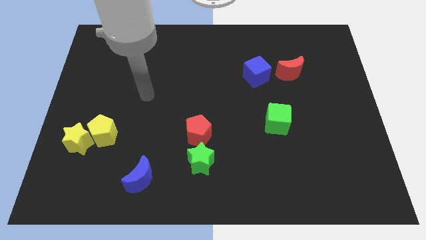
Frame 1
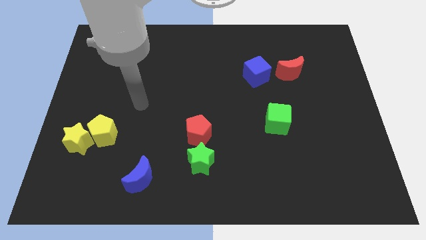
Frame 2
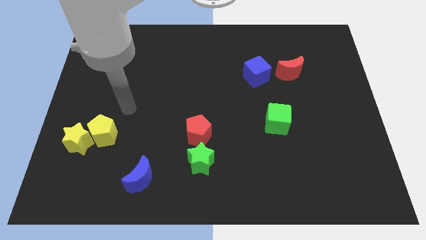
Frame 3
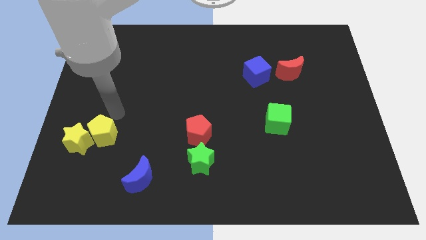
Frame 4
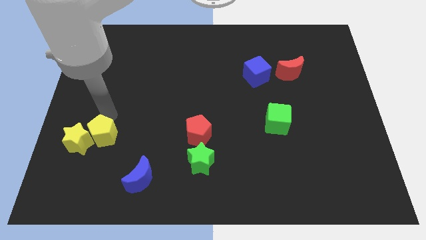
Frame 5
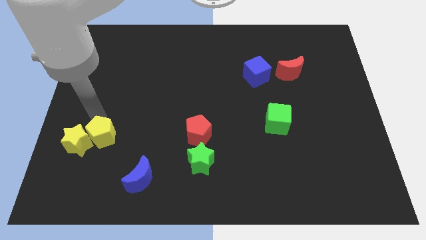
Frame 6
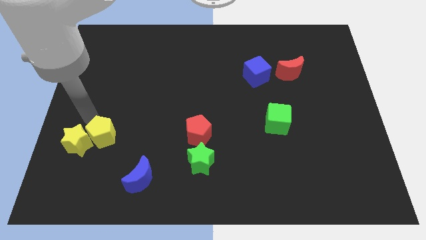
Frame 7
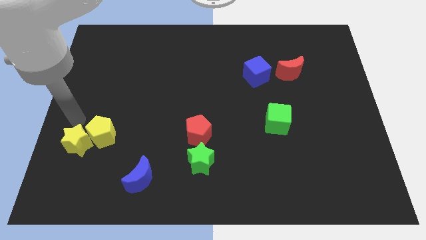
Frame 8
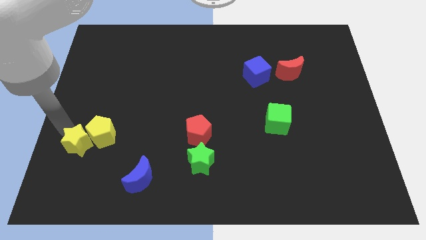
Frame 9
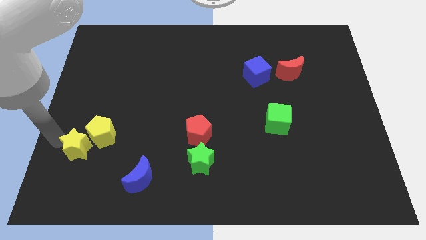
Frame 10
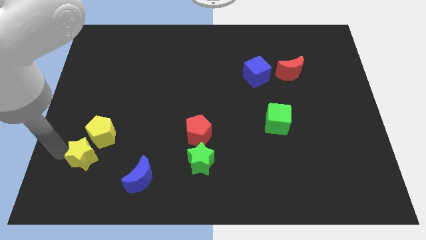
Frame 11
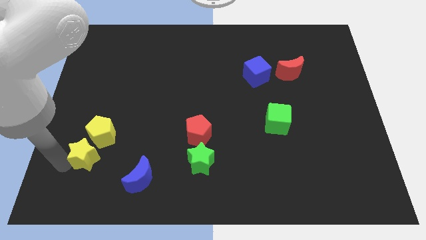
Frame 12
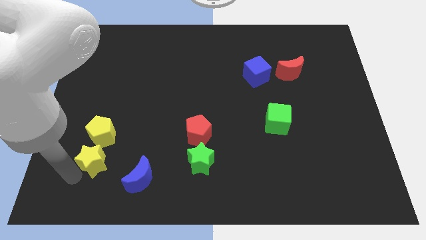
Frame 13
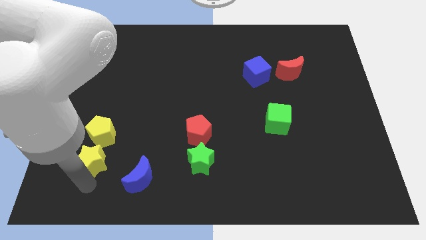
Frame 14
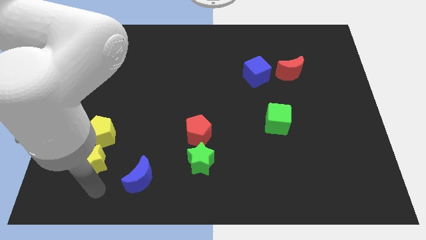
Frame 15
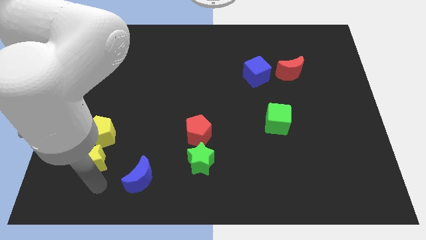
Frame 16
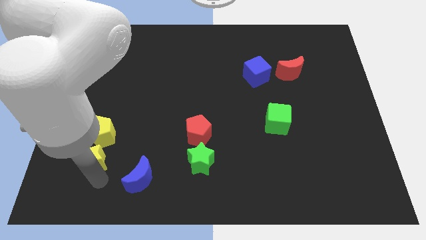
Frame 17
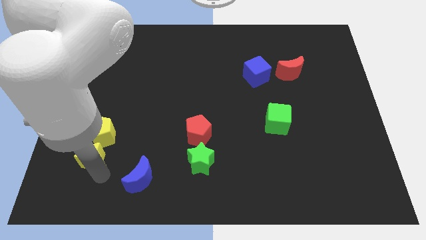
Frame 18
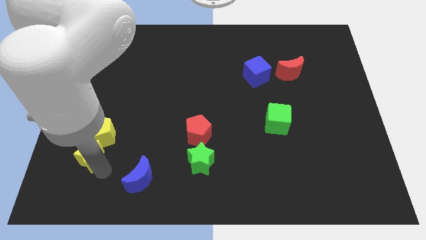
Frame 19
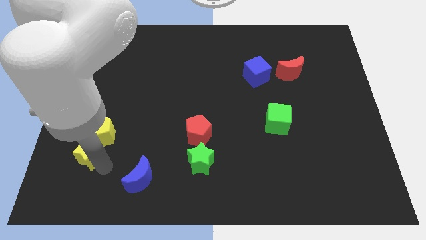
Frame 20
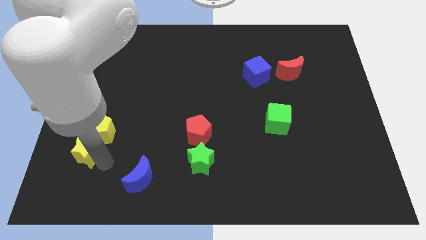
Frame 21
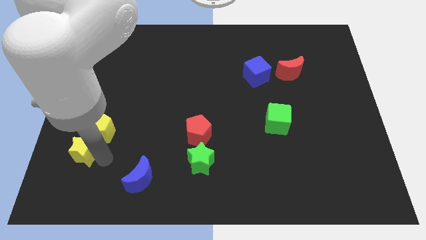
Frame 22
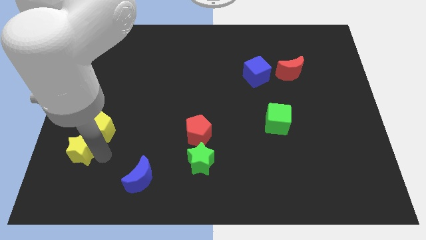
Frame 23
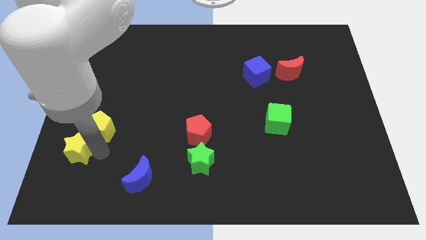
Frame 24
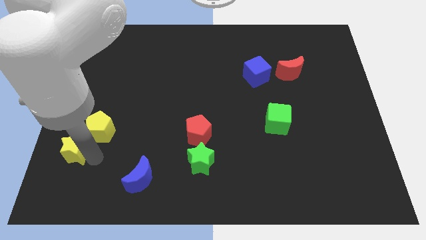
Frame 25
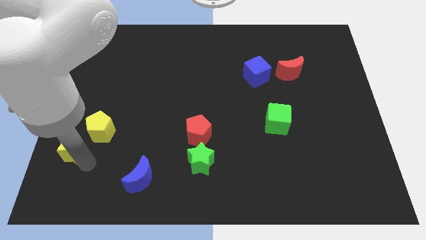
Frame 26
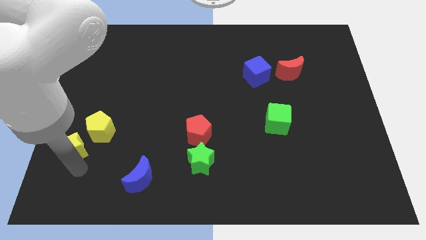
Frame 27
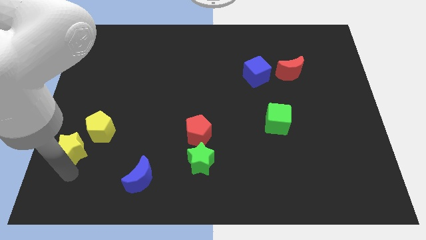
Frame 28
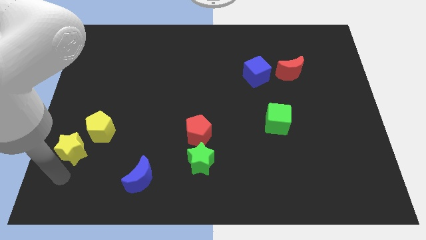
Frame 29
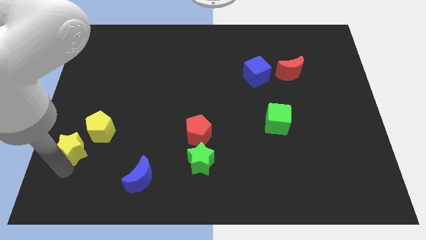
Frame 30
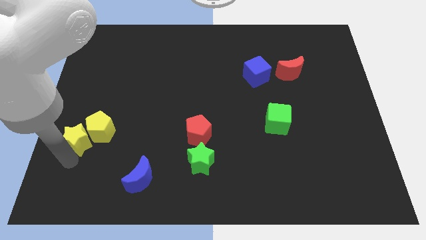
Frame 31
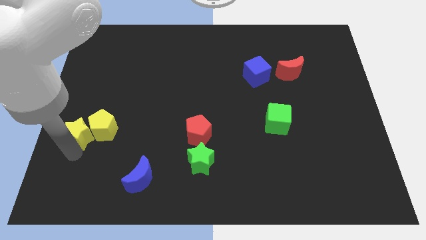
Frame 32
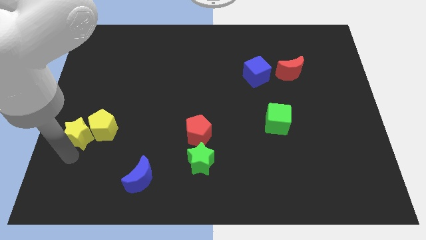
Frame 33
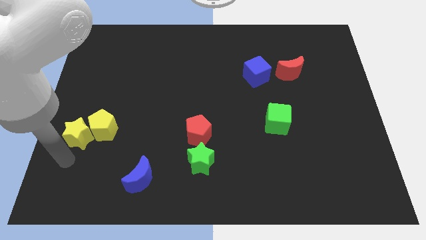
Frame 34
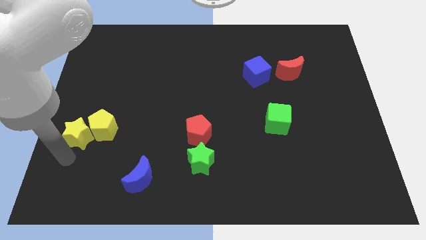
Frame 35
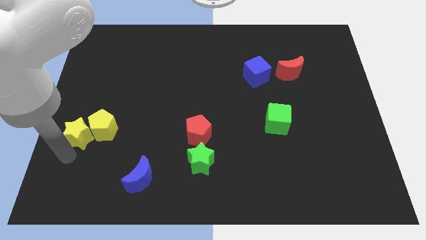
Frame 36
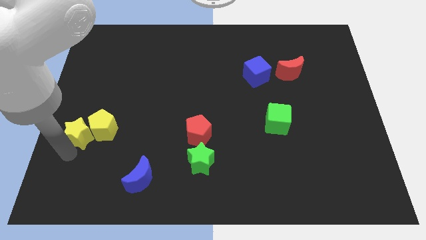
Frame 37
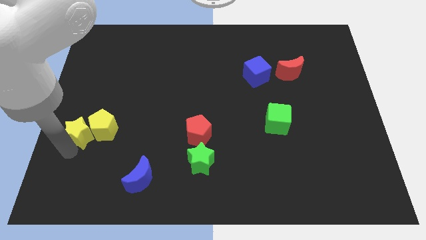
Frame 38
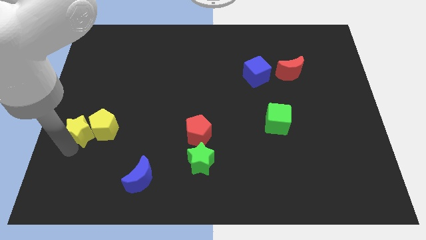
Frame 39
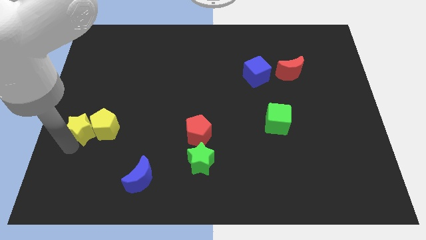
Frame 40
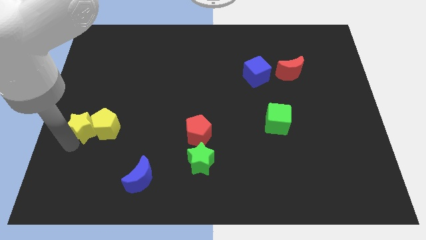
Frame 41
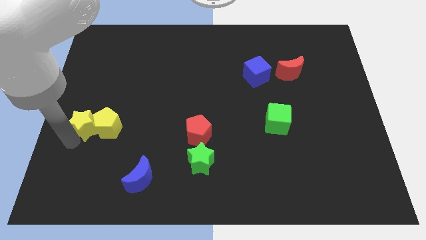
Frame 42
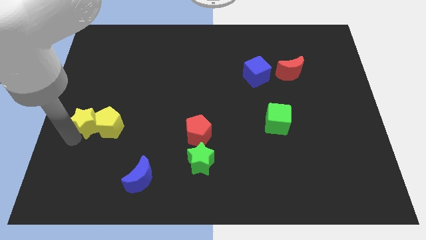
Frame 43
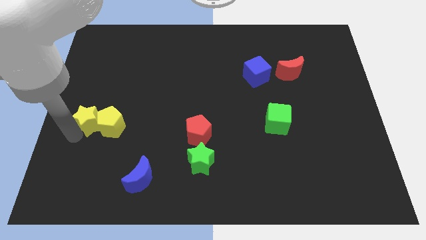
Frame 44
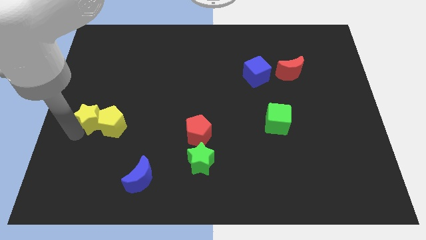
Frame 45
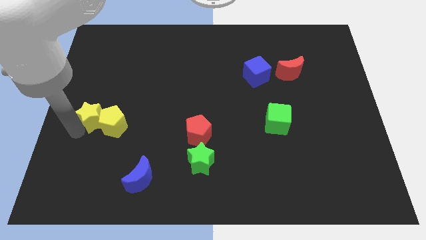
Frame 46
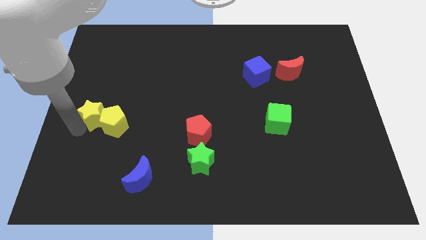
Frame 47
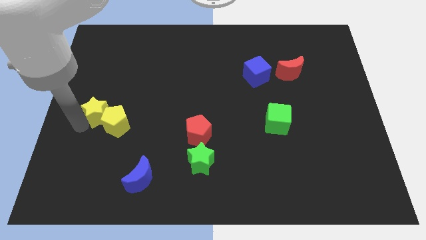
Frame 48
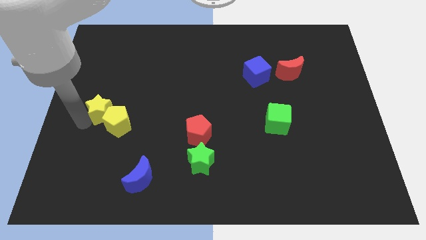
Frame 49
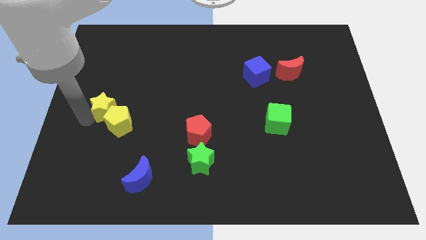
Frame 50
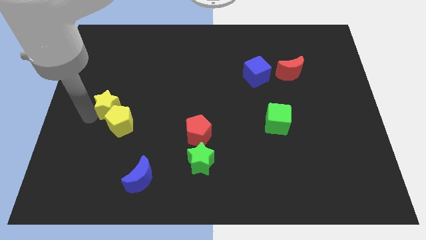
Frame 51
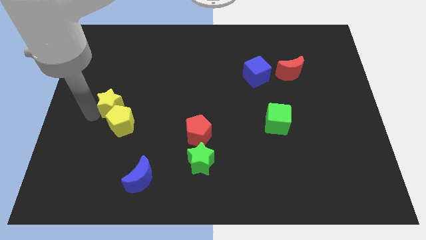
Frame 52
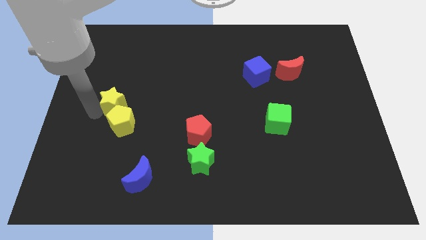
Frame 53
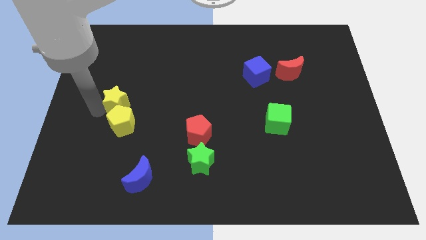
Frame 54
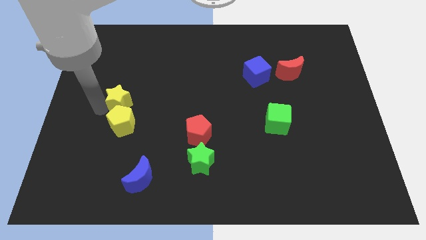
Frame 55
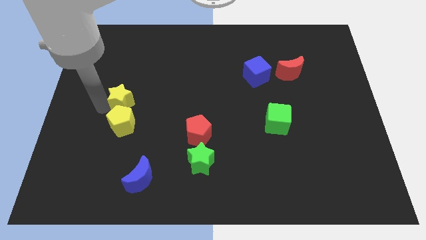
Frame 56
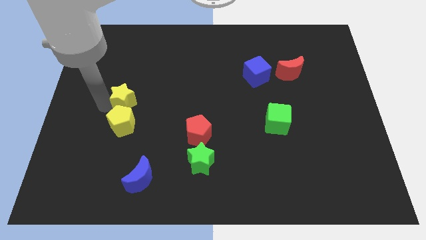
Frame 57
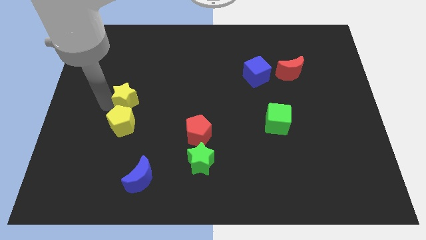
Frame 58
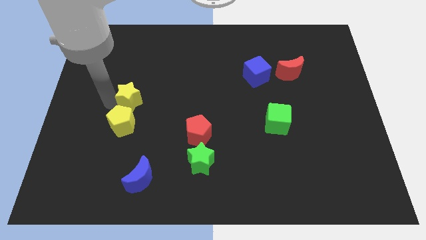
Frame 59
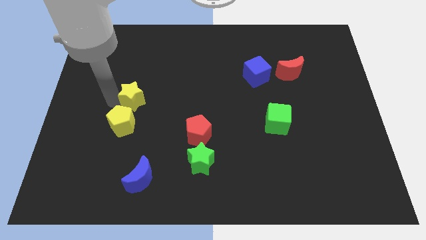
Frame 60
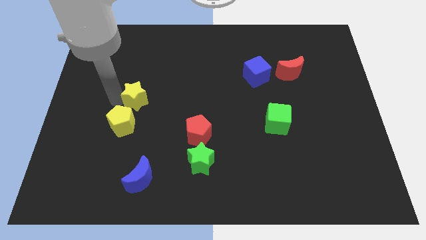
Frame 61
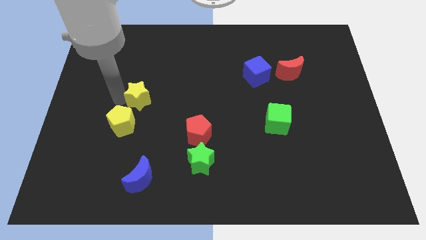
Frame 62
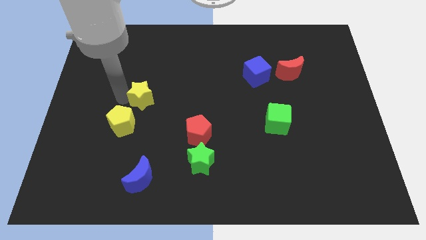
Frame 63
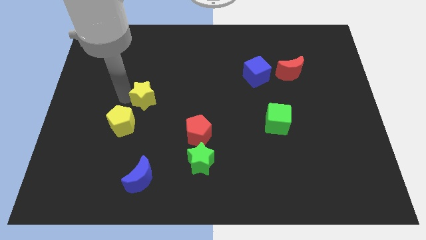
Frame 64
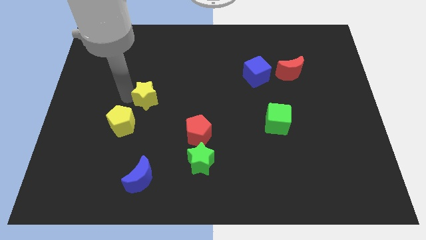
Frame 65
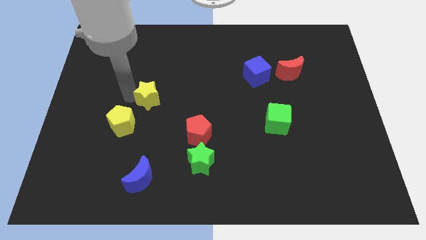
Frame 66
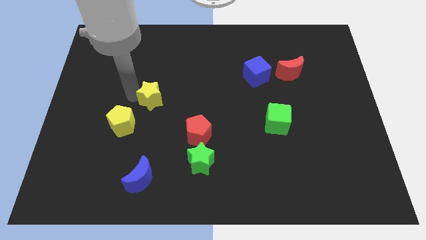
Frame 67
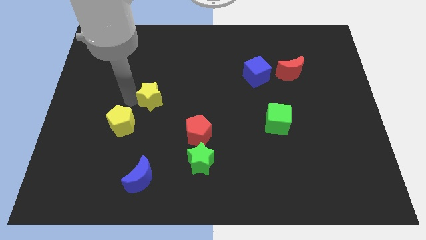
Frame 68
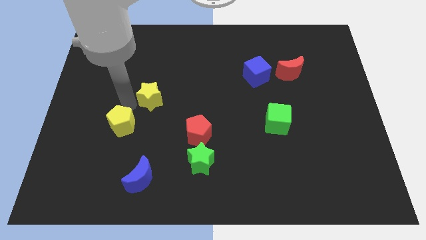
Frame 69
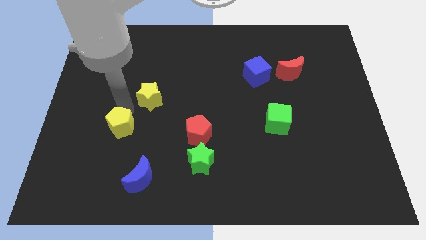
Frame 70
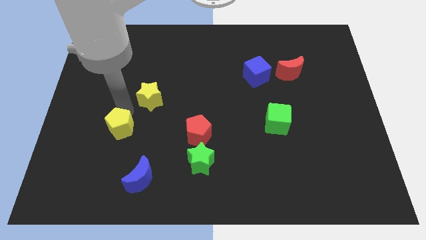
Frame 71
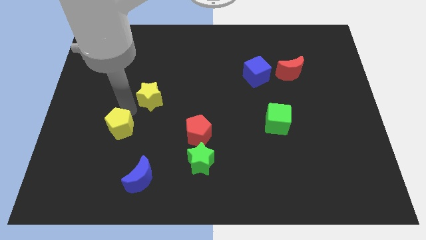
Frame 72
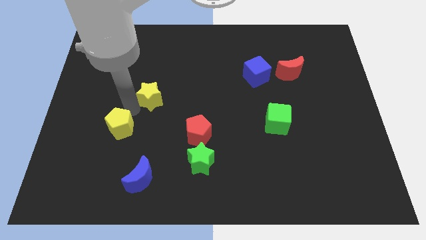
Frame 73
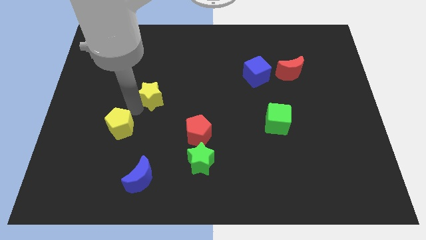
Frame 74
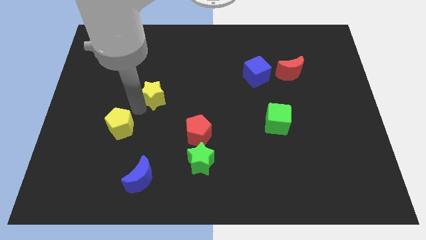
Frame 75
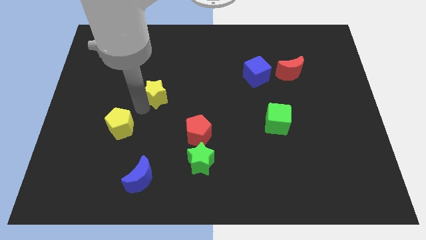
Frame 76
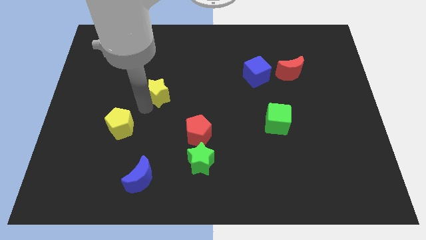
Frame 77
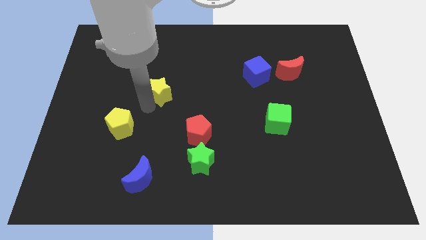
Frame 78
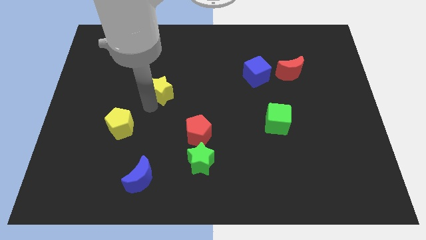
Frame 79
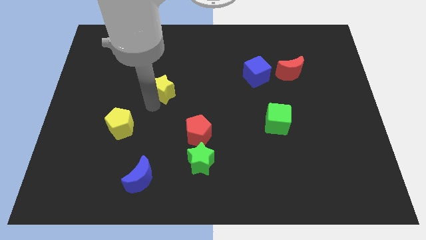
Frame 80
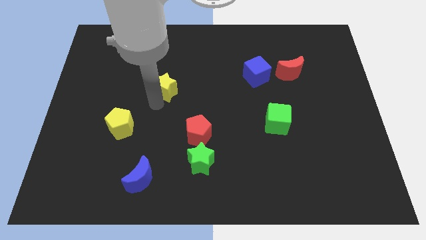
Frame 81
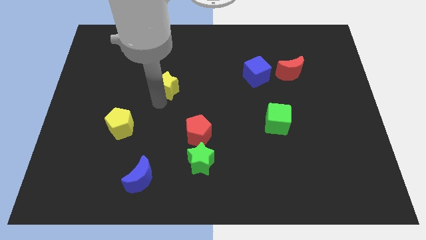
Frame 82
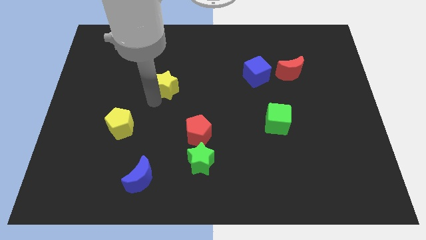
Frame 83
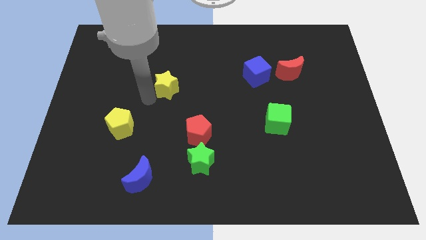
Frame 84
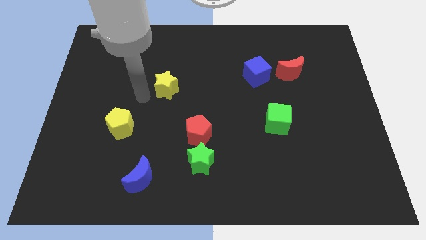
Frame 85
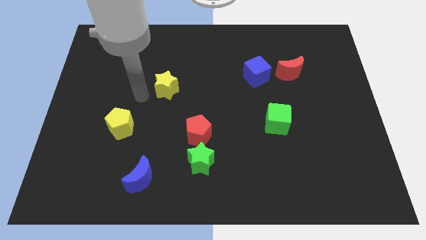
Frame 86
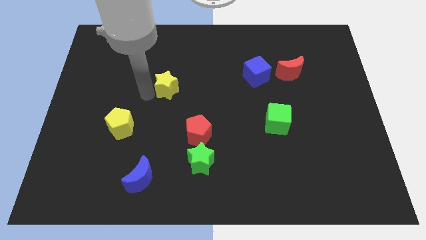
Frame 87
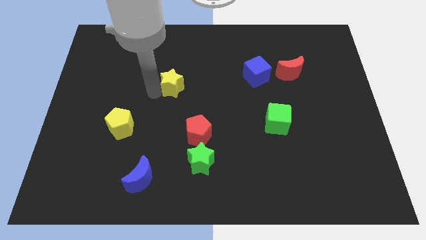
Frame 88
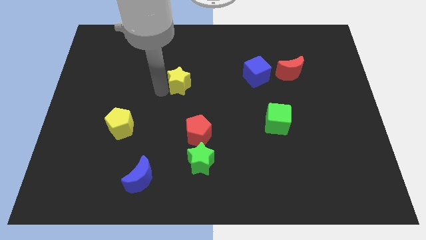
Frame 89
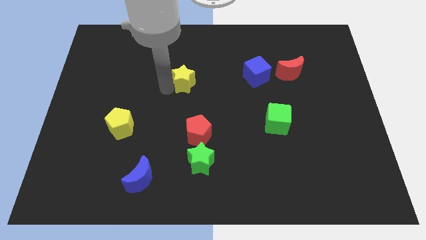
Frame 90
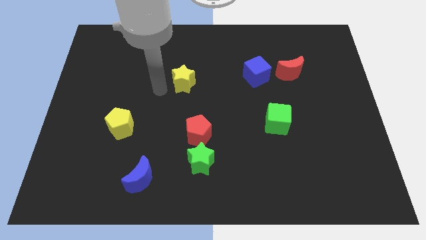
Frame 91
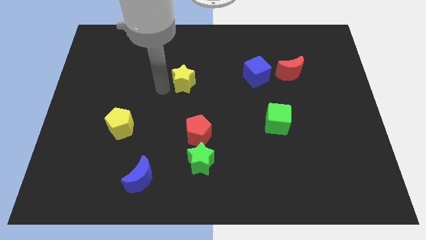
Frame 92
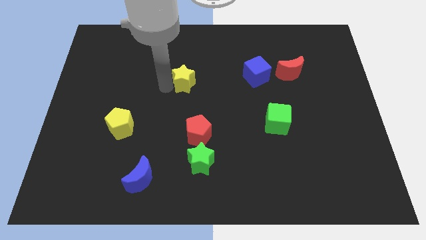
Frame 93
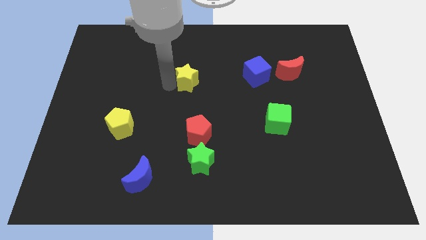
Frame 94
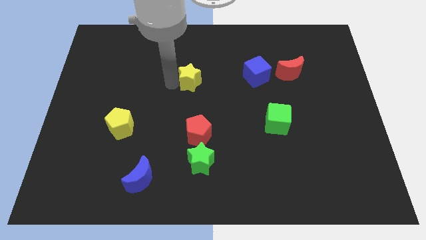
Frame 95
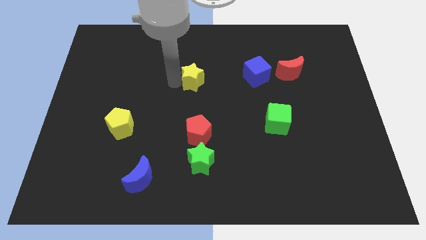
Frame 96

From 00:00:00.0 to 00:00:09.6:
slide the yellow star to the left of the blue cube
